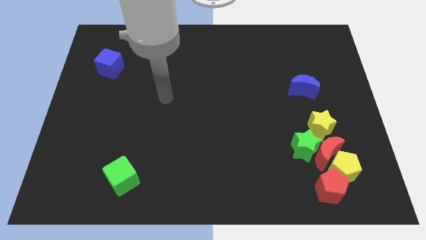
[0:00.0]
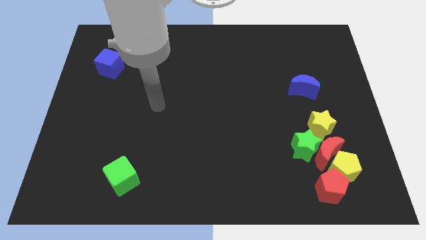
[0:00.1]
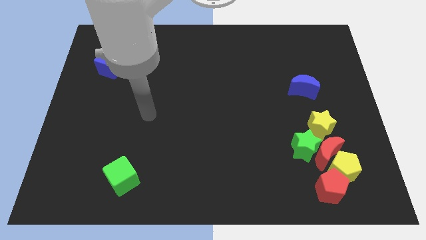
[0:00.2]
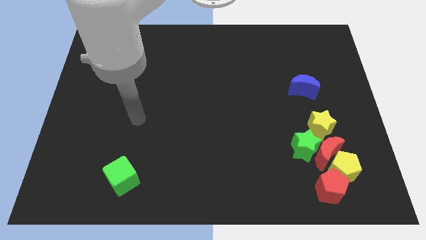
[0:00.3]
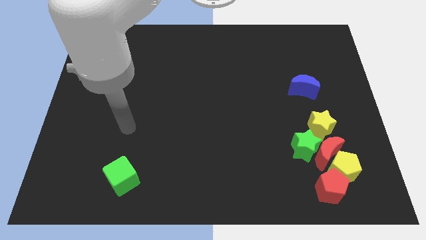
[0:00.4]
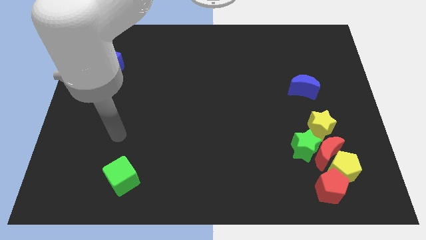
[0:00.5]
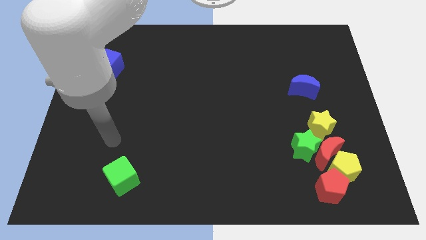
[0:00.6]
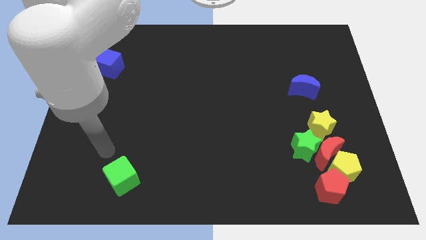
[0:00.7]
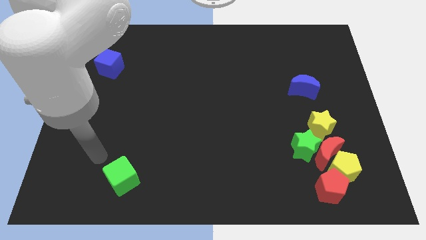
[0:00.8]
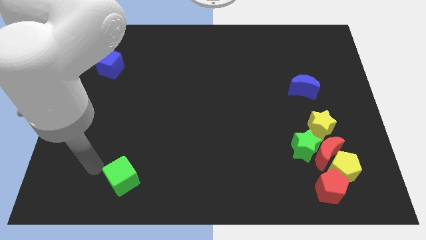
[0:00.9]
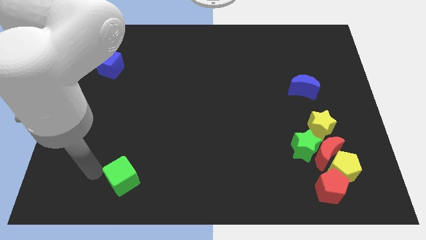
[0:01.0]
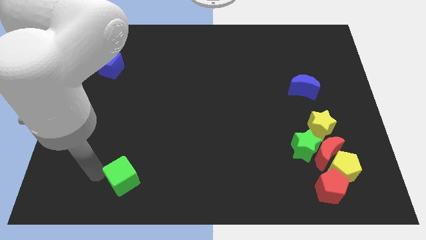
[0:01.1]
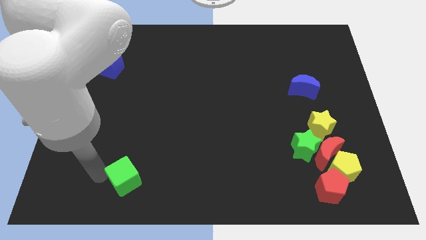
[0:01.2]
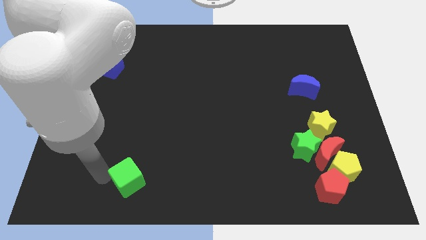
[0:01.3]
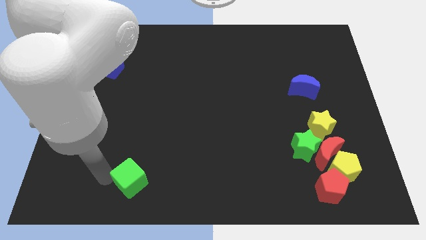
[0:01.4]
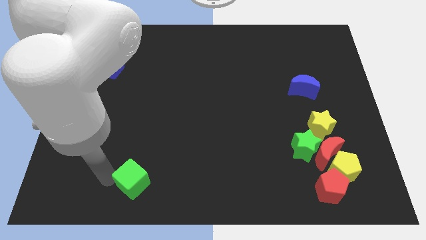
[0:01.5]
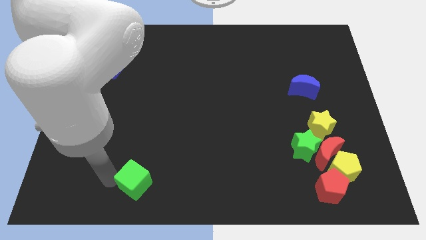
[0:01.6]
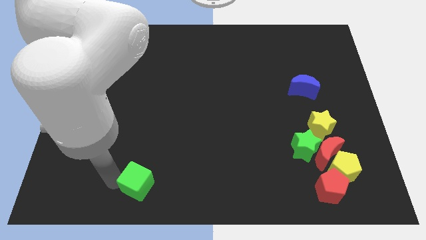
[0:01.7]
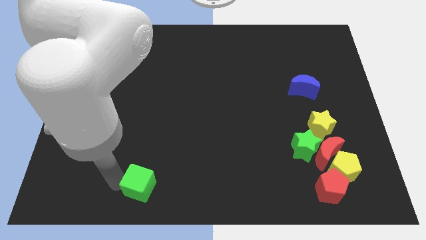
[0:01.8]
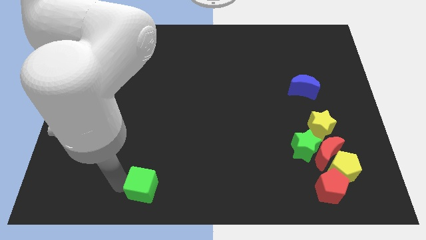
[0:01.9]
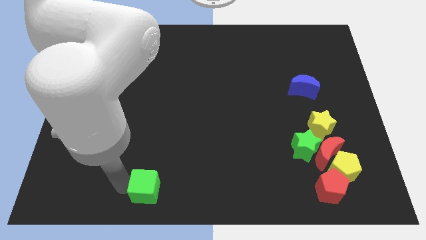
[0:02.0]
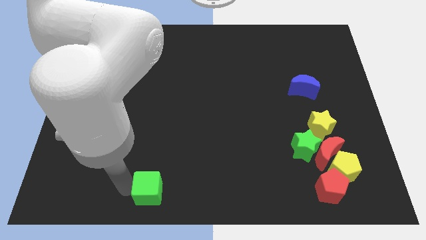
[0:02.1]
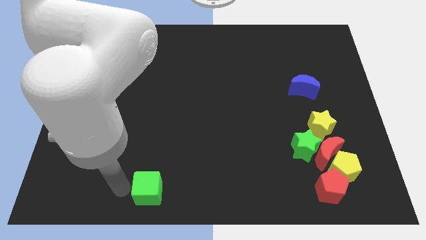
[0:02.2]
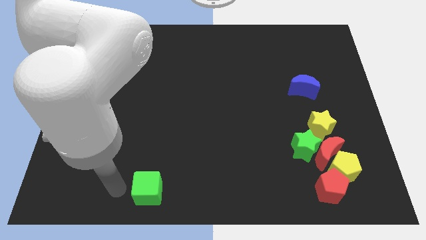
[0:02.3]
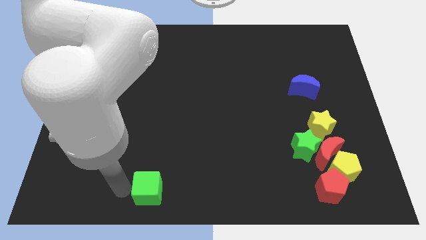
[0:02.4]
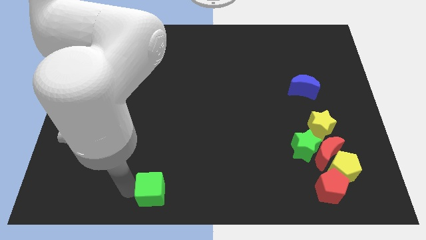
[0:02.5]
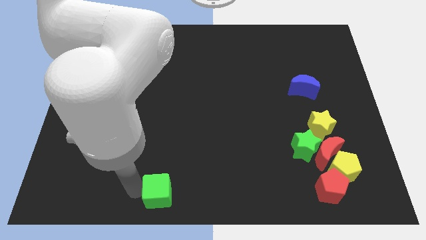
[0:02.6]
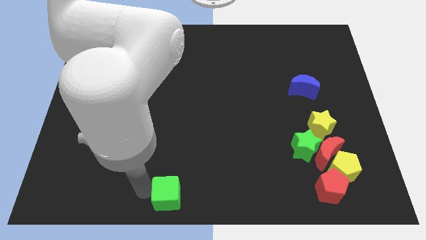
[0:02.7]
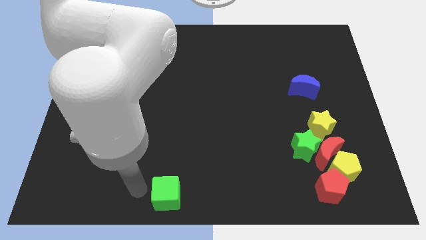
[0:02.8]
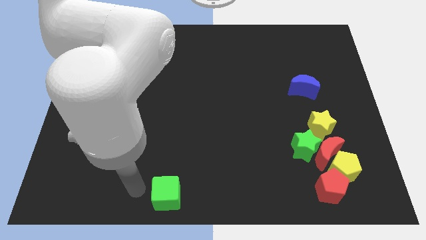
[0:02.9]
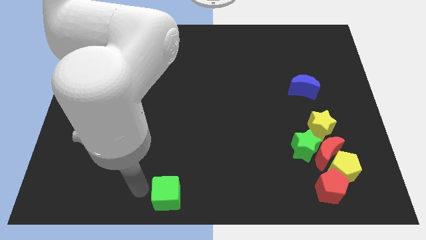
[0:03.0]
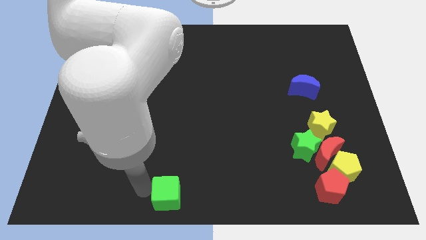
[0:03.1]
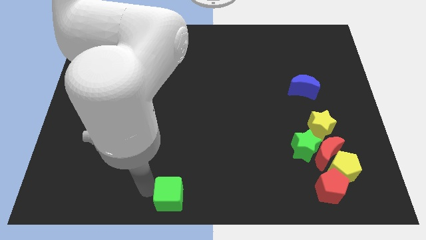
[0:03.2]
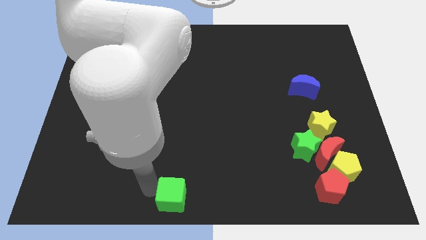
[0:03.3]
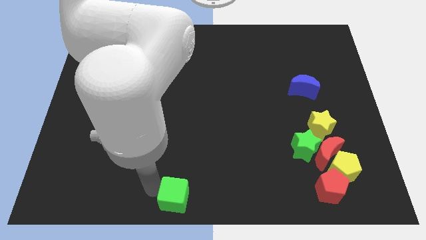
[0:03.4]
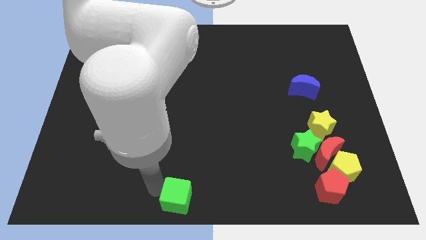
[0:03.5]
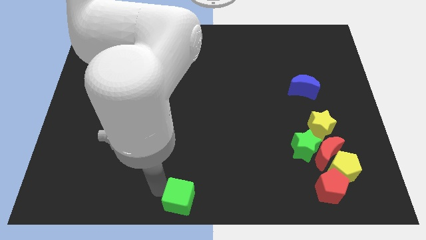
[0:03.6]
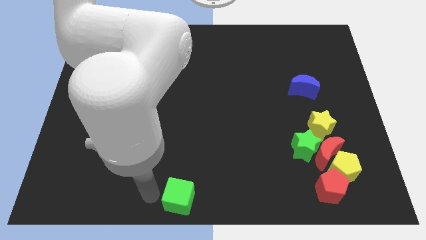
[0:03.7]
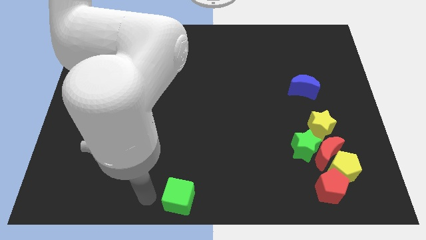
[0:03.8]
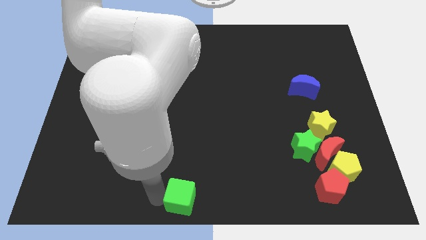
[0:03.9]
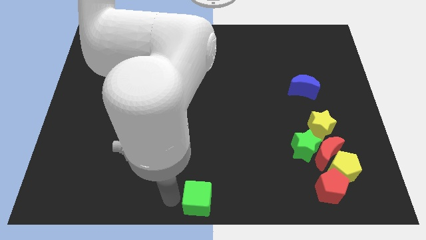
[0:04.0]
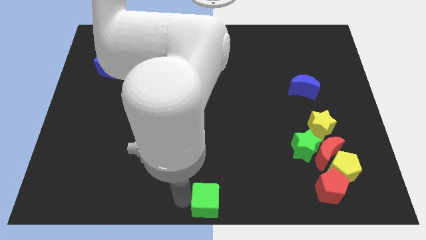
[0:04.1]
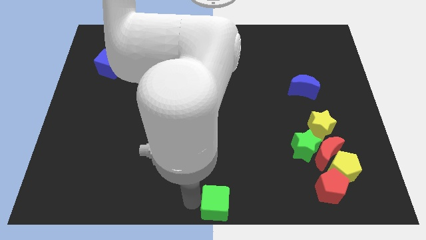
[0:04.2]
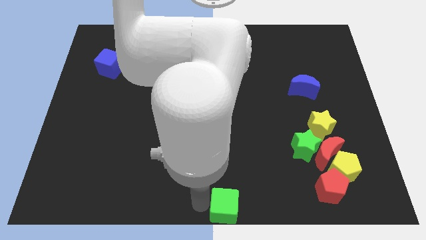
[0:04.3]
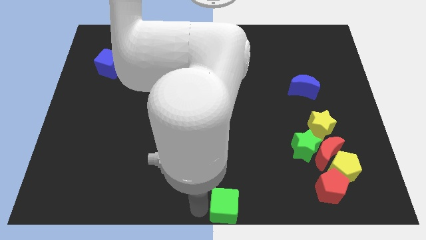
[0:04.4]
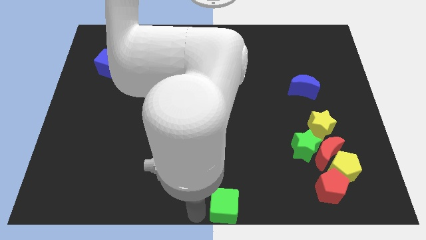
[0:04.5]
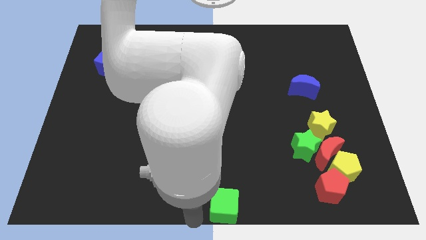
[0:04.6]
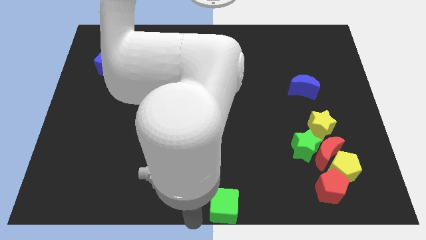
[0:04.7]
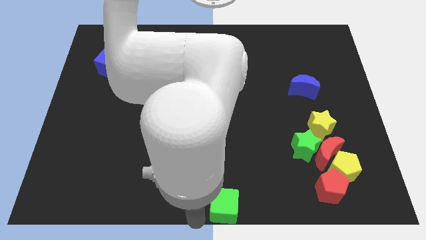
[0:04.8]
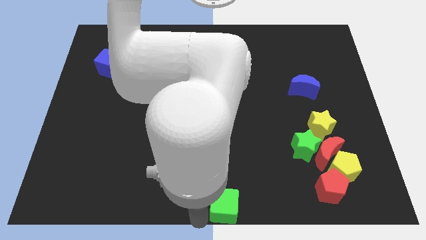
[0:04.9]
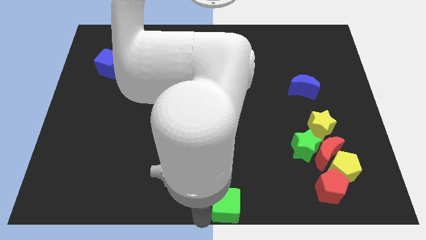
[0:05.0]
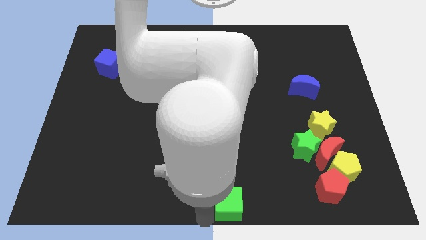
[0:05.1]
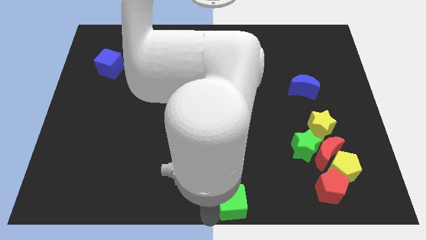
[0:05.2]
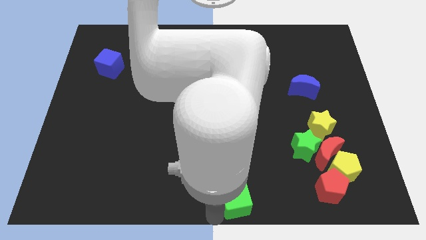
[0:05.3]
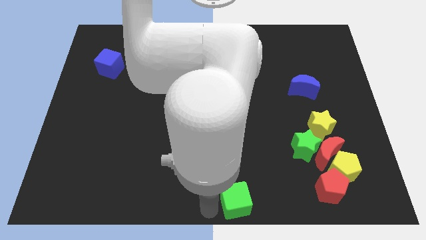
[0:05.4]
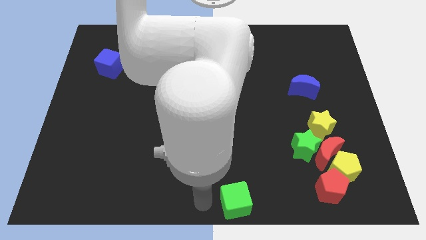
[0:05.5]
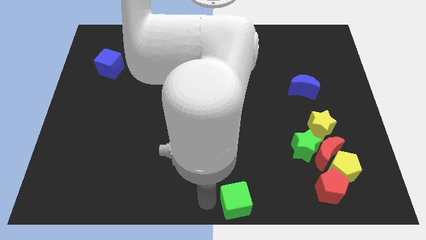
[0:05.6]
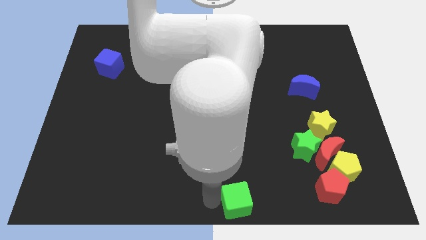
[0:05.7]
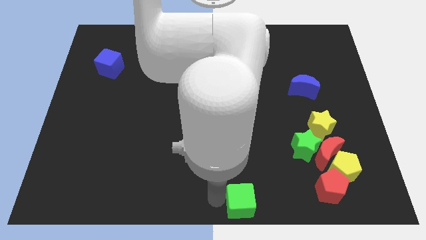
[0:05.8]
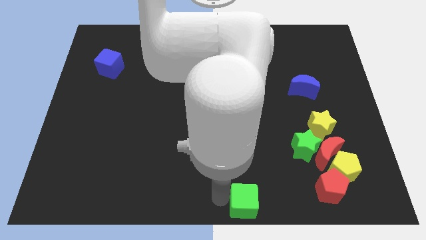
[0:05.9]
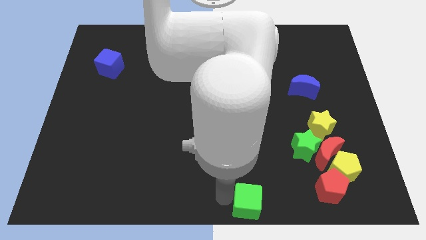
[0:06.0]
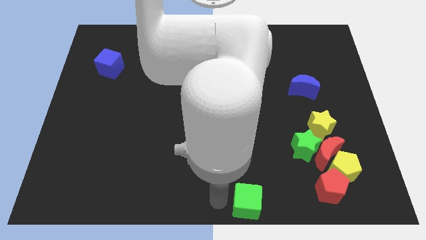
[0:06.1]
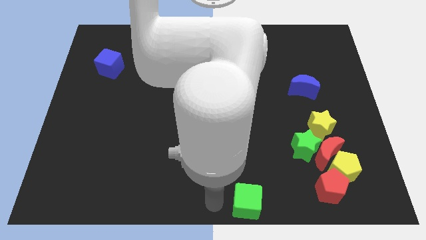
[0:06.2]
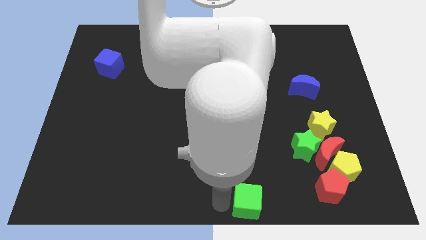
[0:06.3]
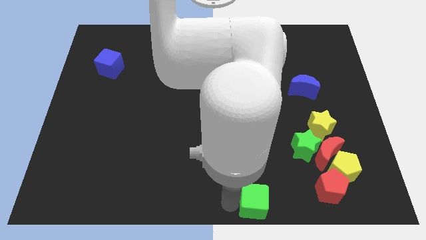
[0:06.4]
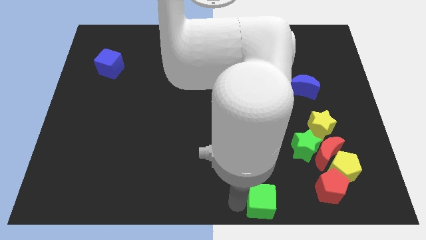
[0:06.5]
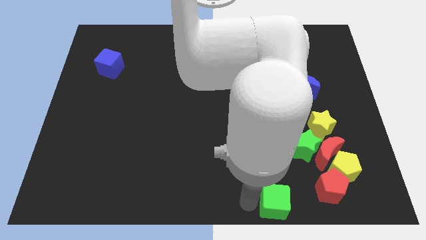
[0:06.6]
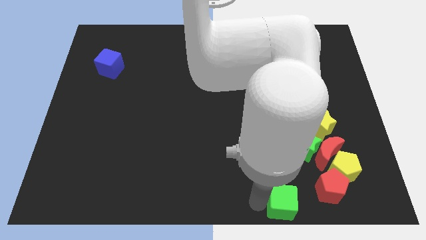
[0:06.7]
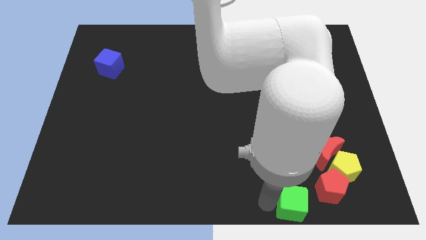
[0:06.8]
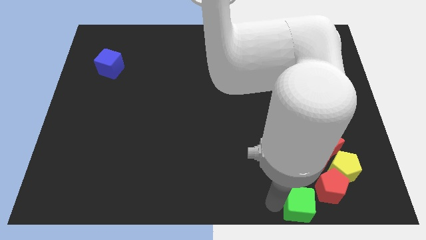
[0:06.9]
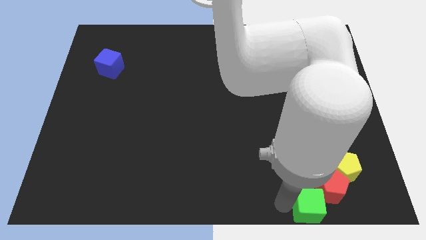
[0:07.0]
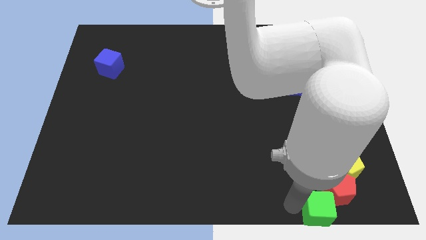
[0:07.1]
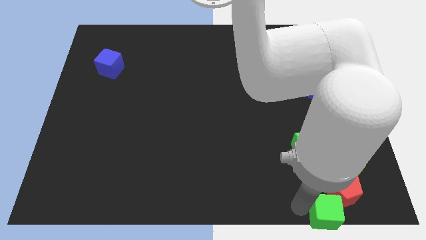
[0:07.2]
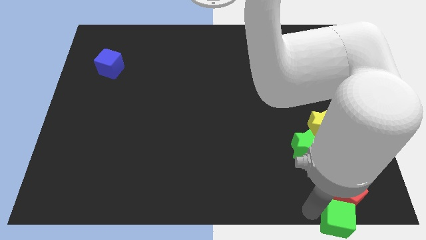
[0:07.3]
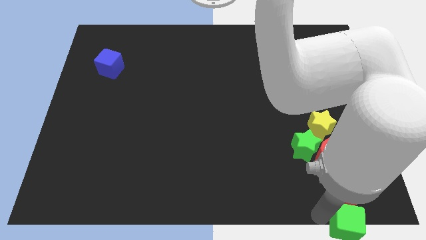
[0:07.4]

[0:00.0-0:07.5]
slide the green cube to the bottom right
